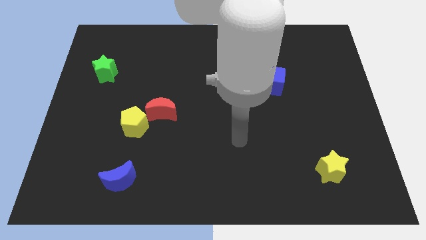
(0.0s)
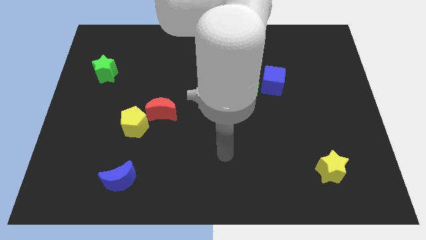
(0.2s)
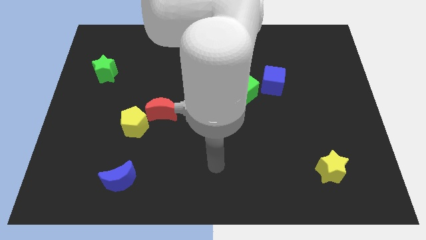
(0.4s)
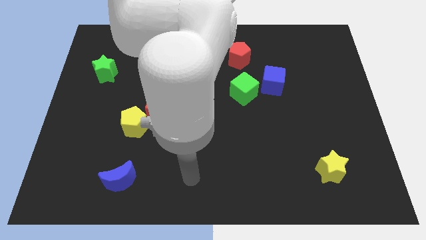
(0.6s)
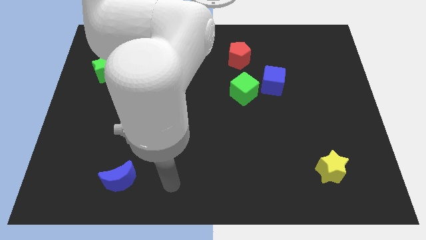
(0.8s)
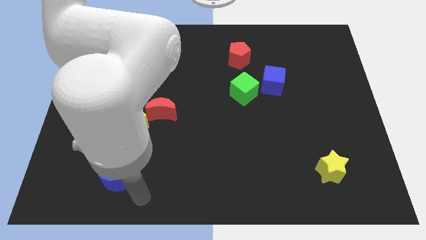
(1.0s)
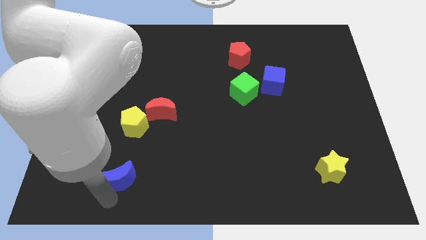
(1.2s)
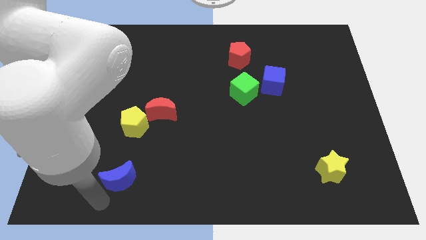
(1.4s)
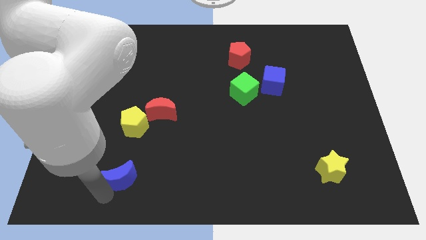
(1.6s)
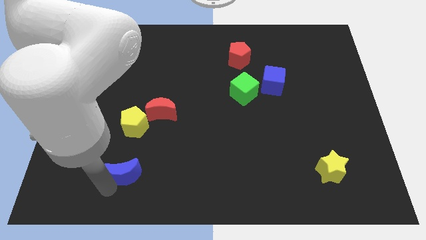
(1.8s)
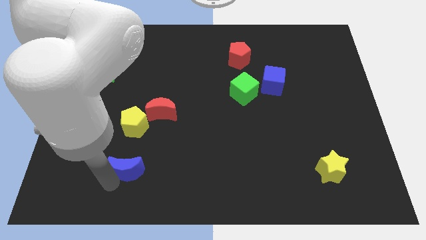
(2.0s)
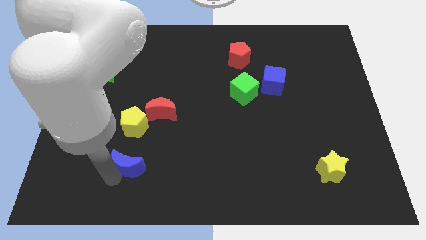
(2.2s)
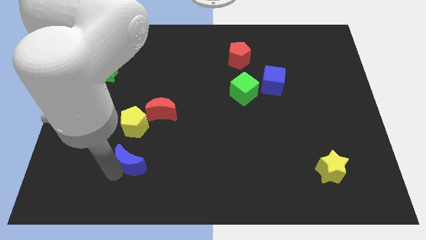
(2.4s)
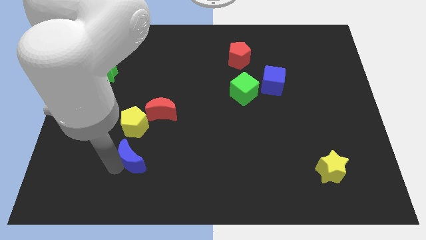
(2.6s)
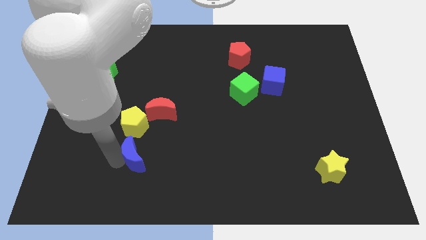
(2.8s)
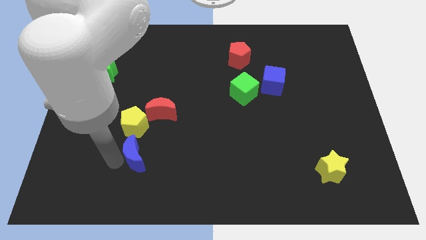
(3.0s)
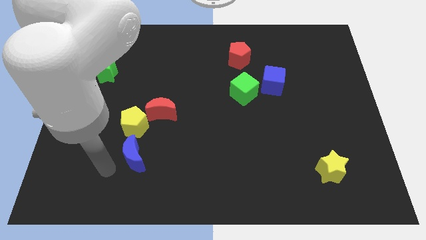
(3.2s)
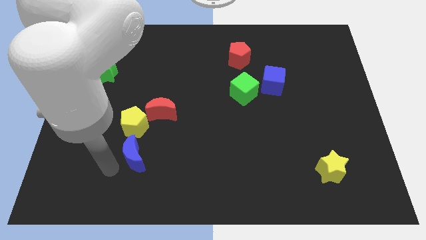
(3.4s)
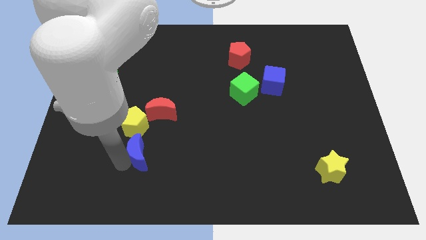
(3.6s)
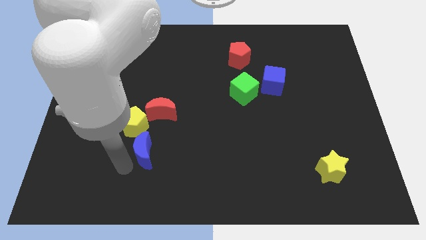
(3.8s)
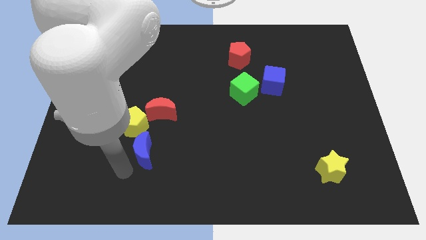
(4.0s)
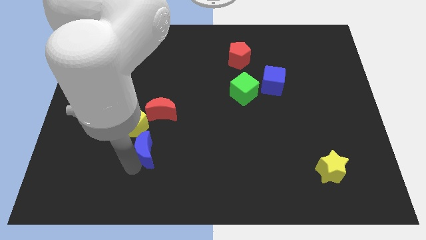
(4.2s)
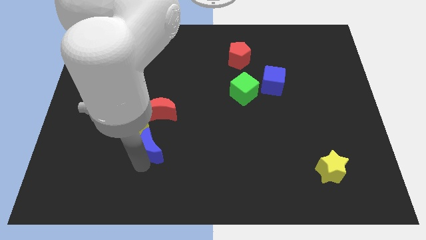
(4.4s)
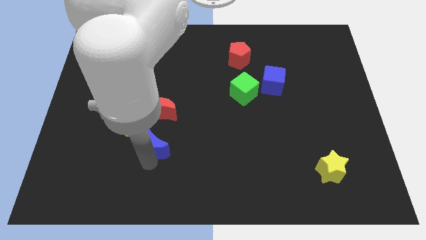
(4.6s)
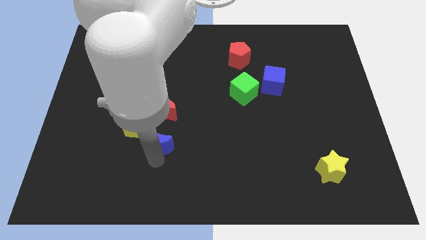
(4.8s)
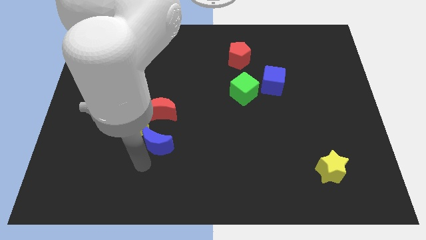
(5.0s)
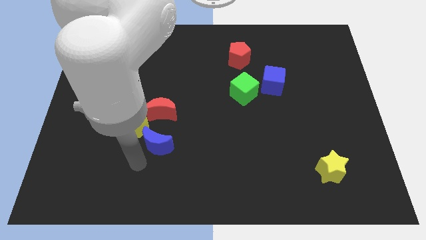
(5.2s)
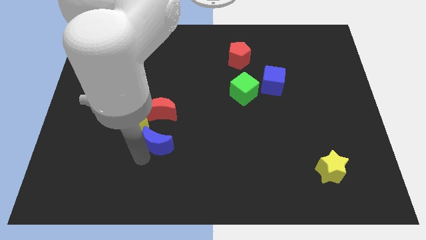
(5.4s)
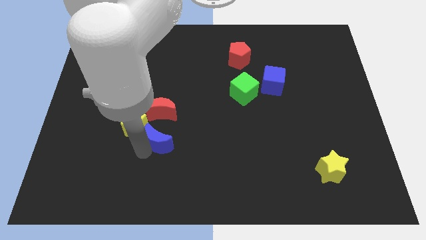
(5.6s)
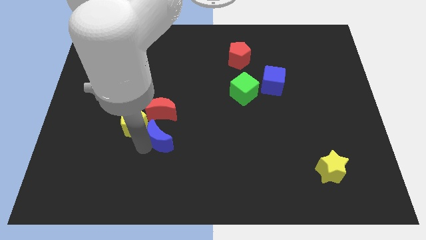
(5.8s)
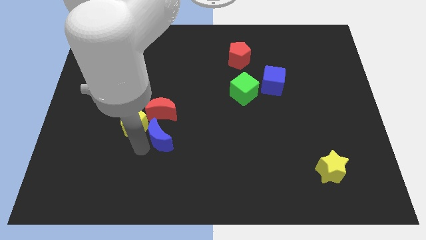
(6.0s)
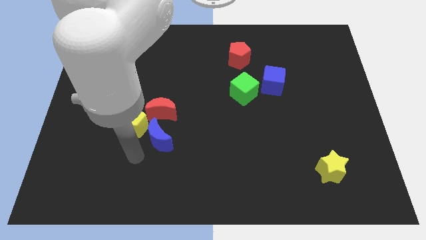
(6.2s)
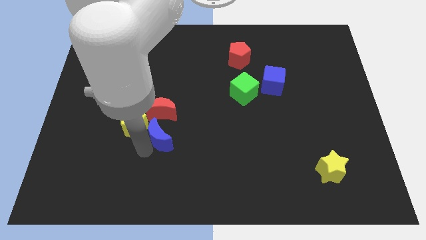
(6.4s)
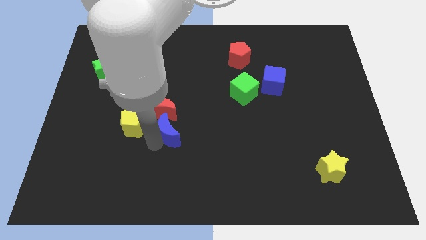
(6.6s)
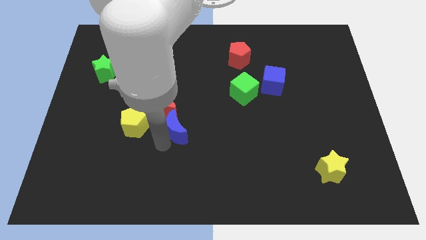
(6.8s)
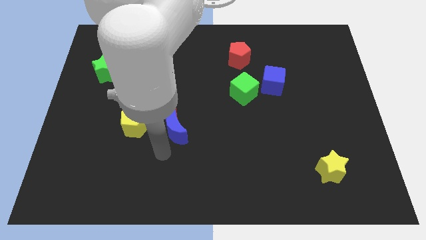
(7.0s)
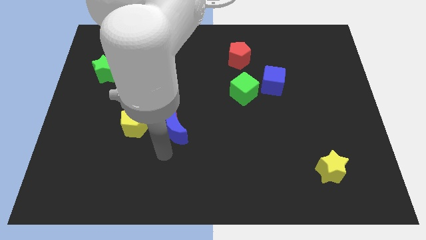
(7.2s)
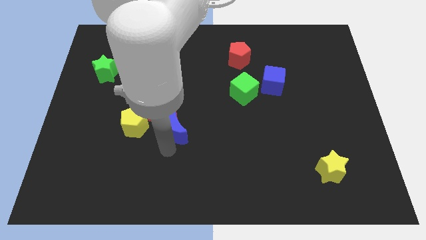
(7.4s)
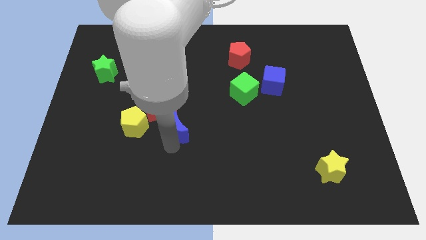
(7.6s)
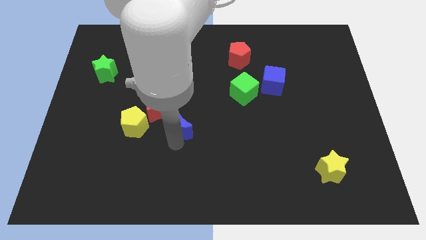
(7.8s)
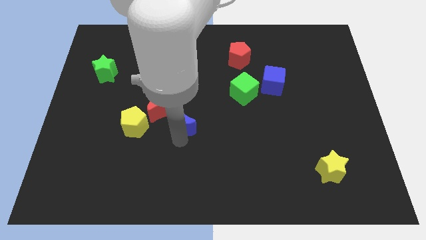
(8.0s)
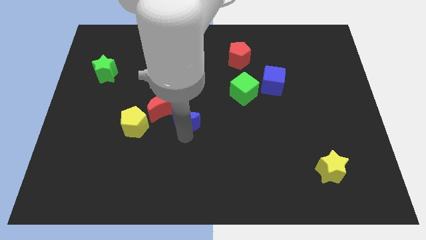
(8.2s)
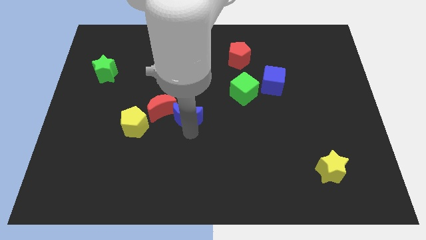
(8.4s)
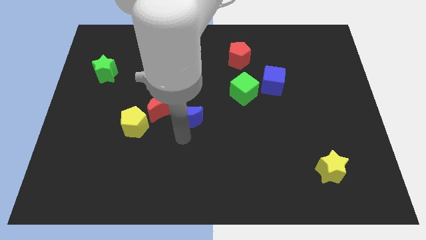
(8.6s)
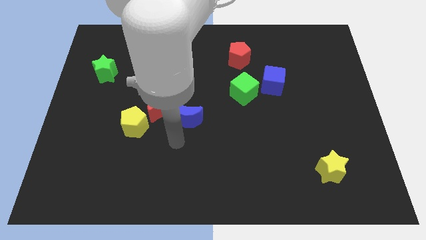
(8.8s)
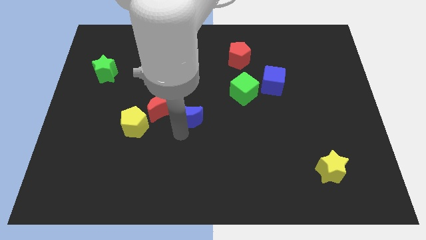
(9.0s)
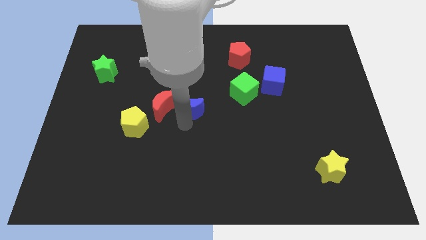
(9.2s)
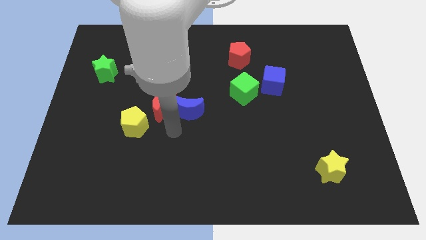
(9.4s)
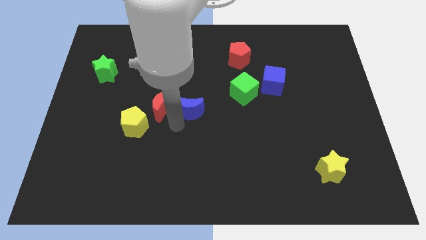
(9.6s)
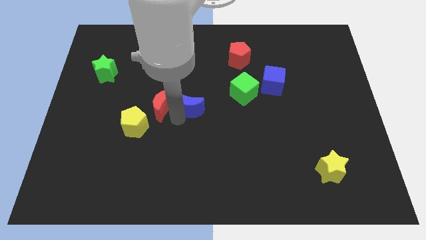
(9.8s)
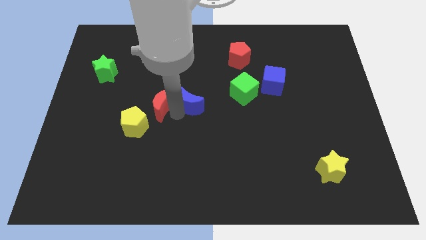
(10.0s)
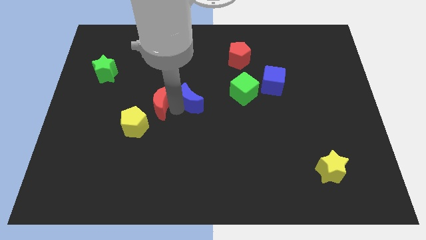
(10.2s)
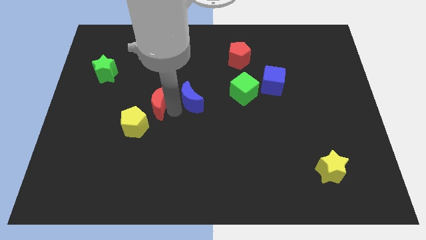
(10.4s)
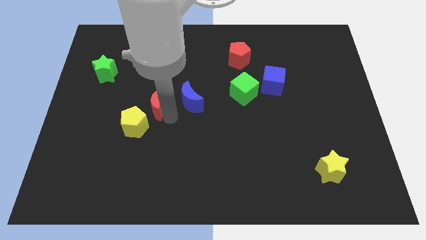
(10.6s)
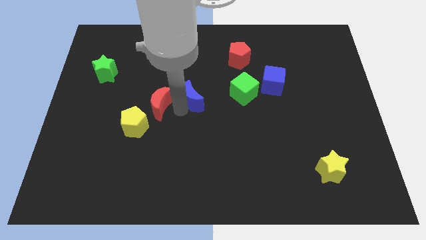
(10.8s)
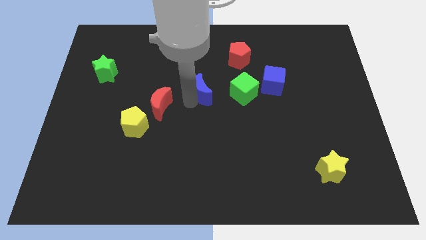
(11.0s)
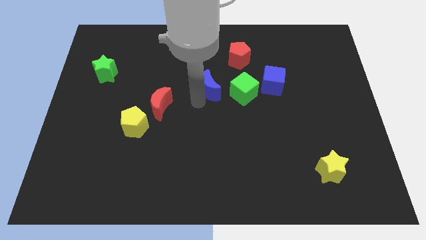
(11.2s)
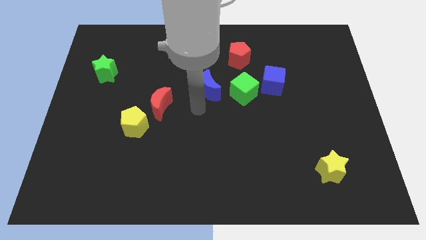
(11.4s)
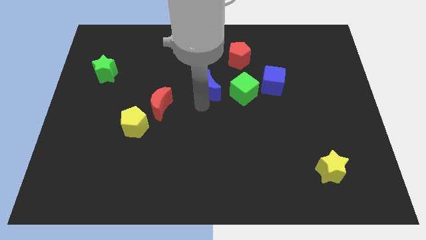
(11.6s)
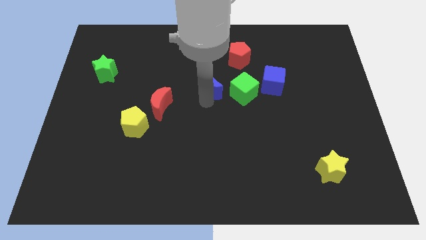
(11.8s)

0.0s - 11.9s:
slide the blue moon to the bottom left side of the red pentagon
